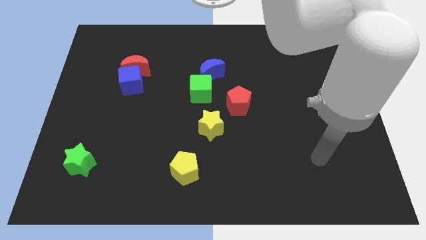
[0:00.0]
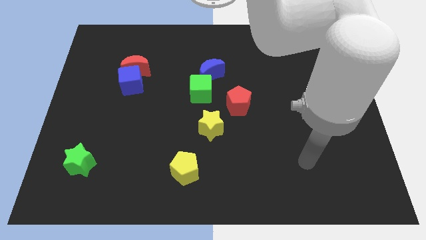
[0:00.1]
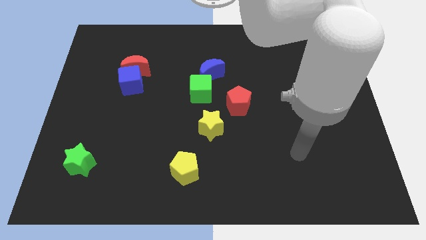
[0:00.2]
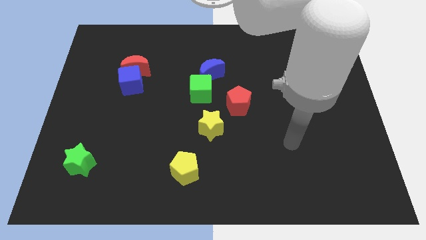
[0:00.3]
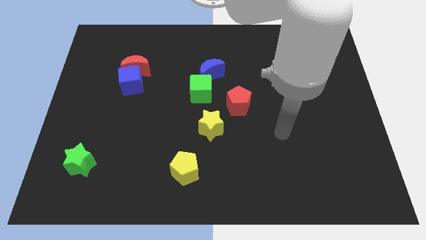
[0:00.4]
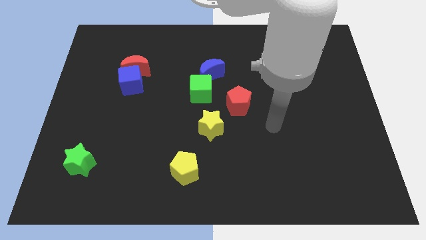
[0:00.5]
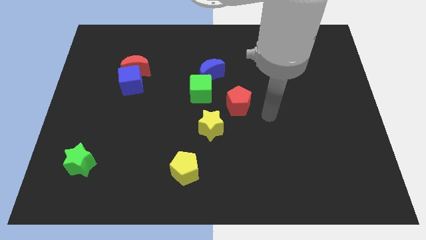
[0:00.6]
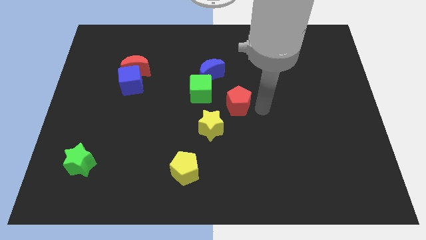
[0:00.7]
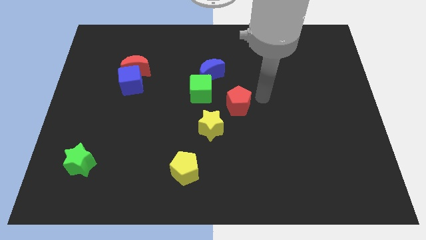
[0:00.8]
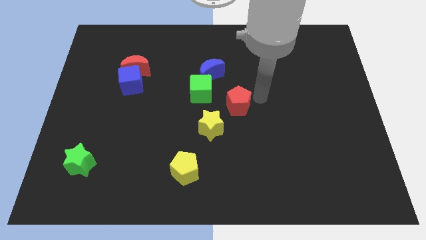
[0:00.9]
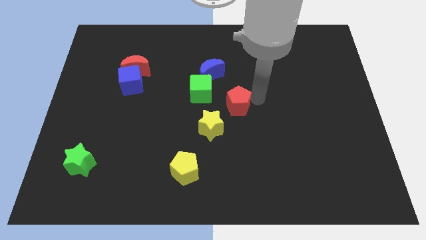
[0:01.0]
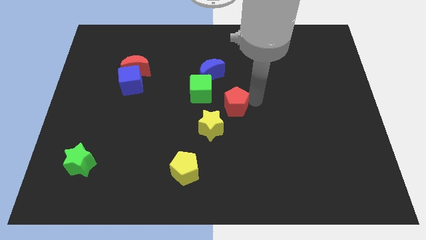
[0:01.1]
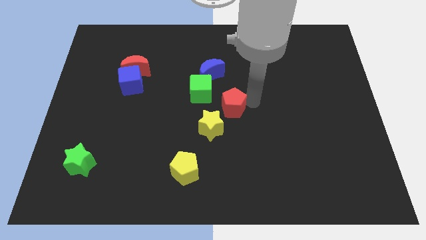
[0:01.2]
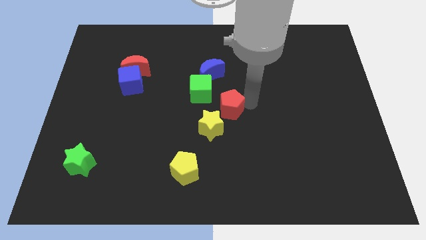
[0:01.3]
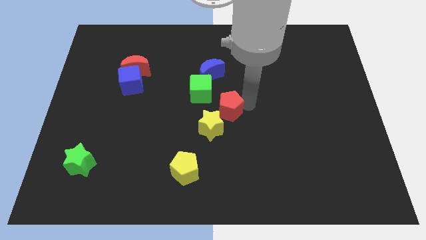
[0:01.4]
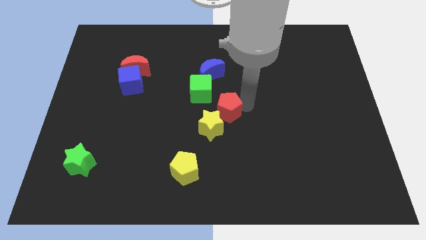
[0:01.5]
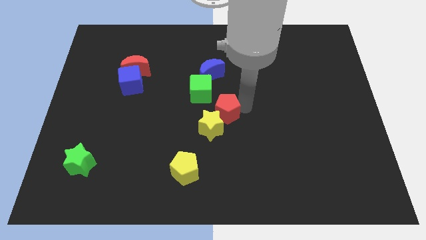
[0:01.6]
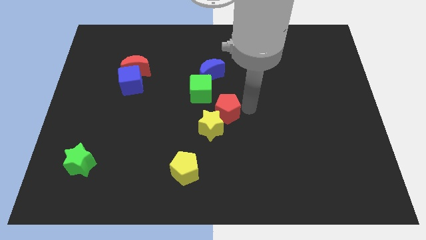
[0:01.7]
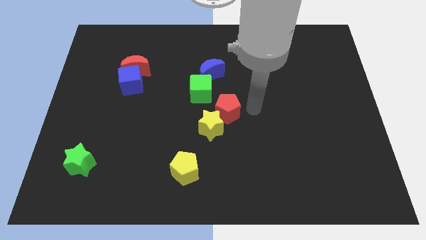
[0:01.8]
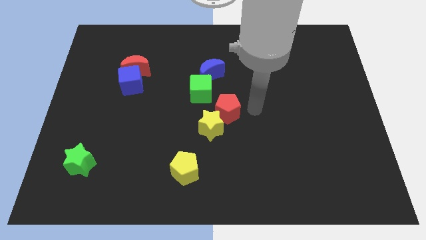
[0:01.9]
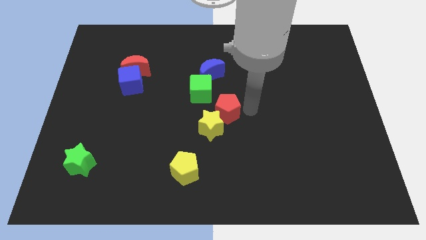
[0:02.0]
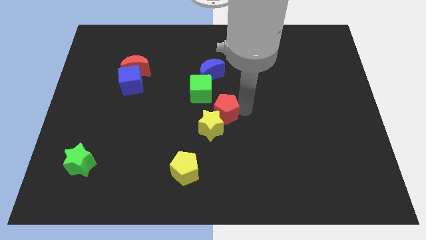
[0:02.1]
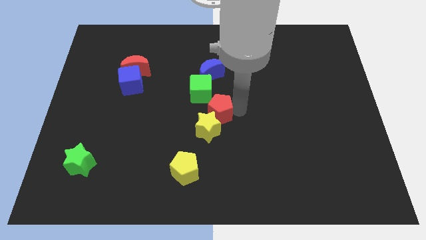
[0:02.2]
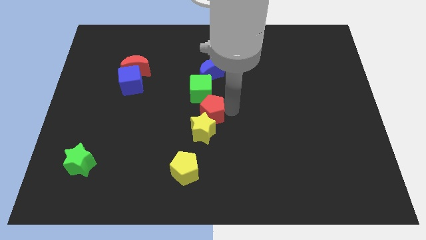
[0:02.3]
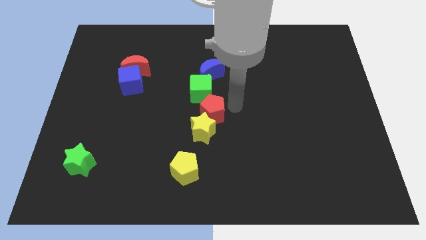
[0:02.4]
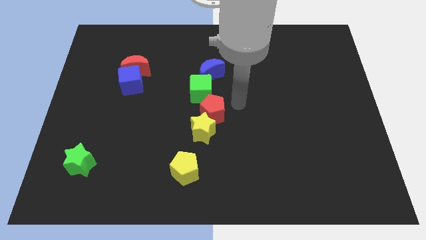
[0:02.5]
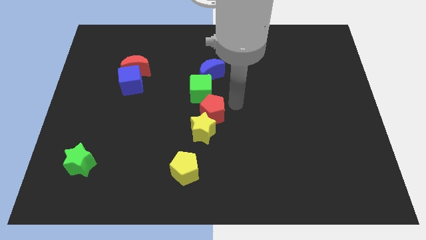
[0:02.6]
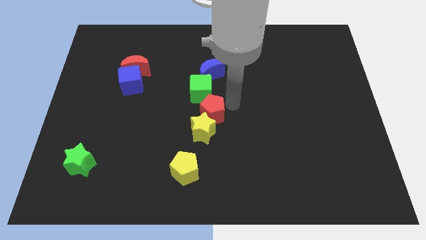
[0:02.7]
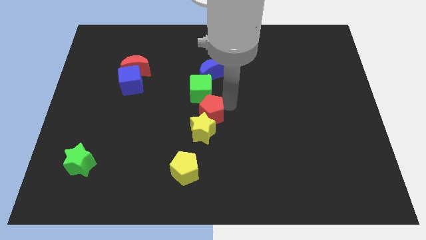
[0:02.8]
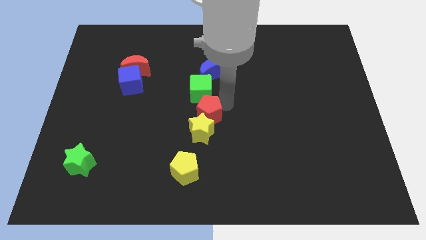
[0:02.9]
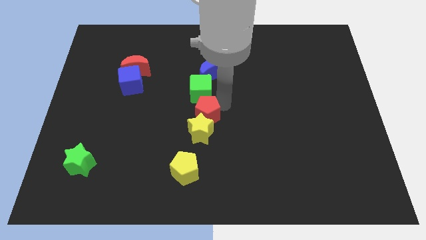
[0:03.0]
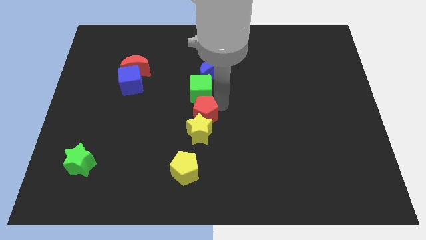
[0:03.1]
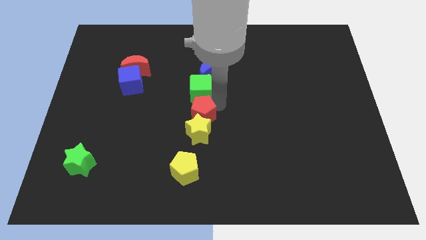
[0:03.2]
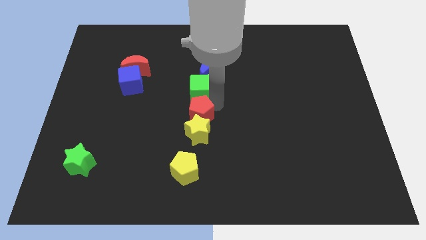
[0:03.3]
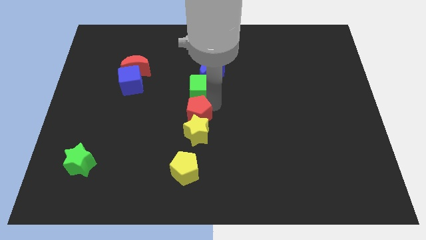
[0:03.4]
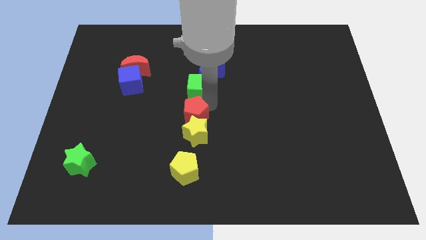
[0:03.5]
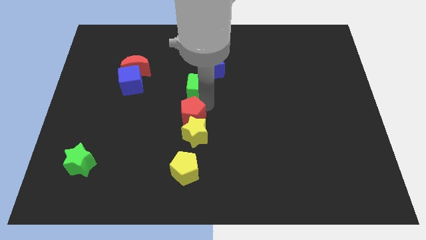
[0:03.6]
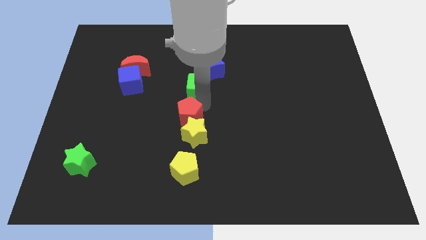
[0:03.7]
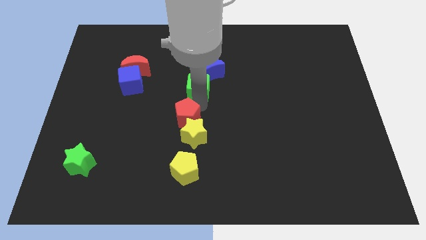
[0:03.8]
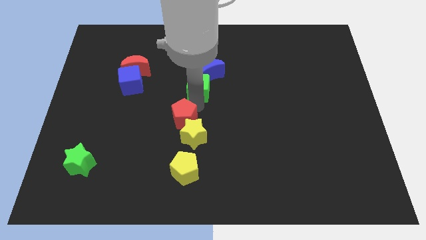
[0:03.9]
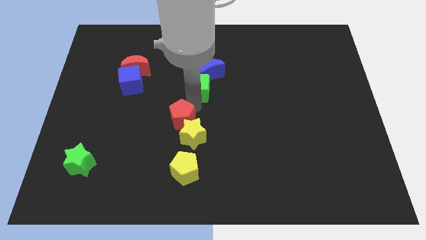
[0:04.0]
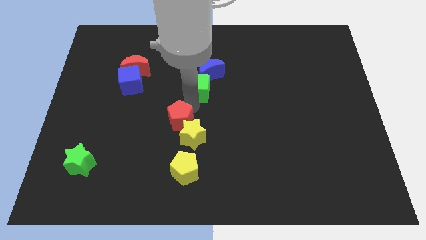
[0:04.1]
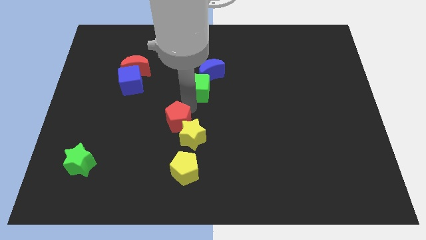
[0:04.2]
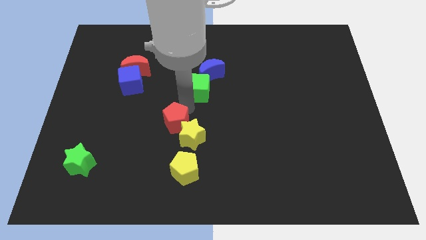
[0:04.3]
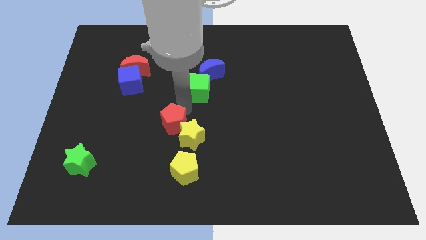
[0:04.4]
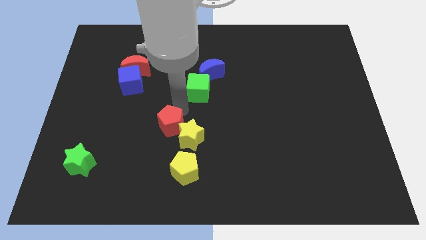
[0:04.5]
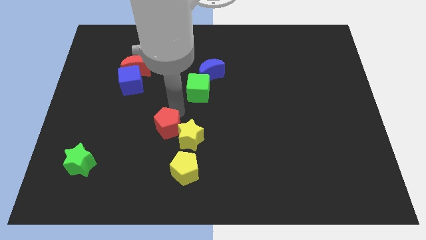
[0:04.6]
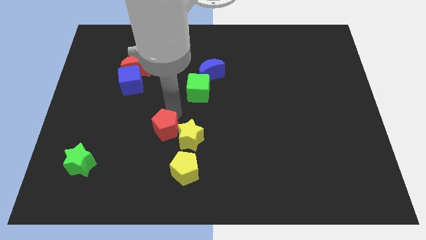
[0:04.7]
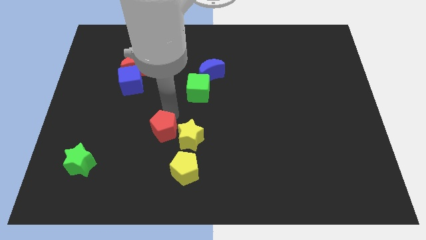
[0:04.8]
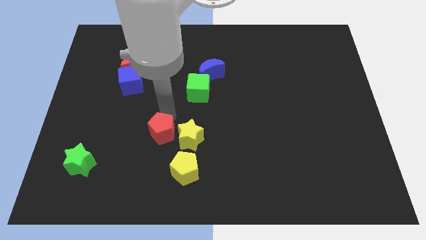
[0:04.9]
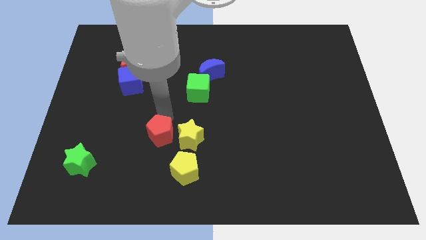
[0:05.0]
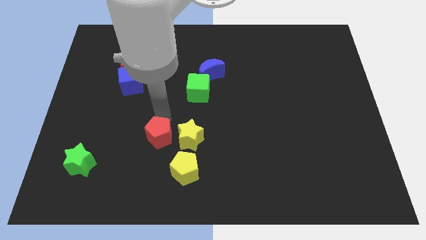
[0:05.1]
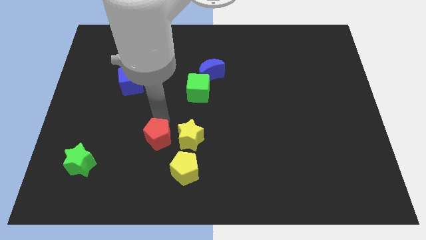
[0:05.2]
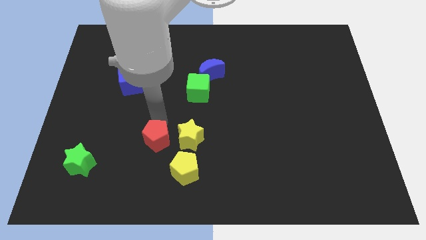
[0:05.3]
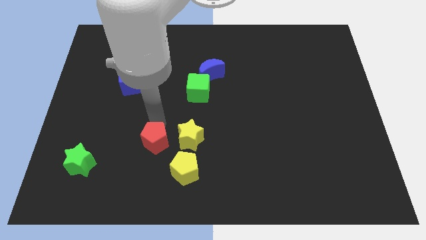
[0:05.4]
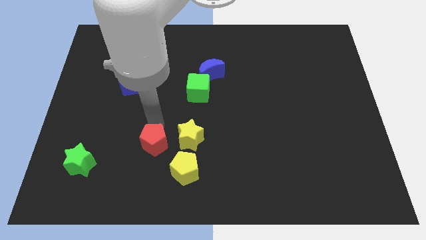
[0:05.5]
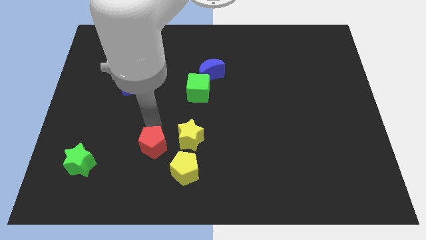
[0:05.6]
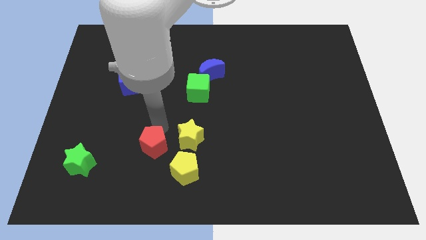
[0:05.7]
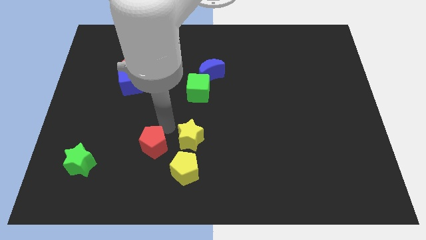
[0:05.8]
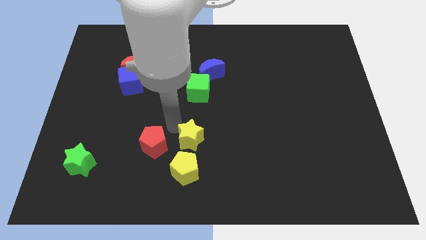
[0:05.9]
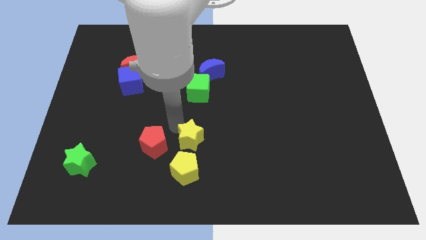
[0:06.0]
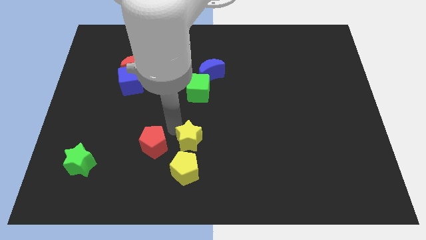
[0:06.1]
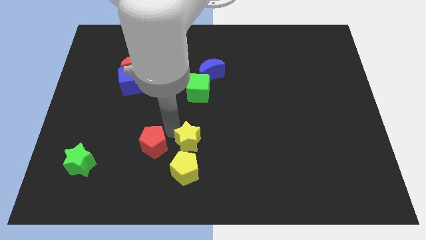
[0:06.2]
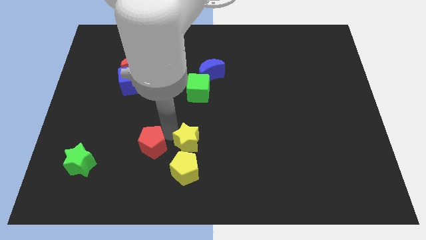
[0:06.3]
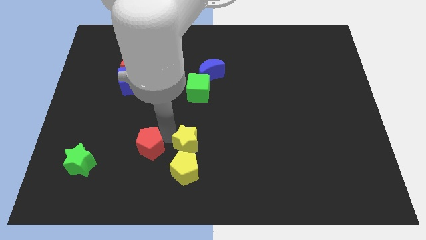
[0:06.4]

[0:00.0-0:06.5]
move the red pentagon just right of the green star

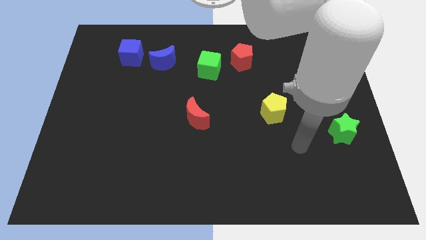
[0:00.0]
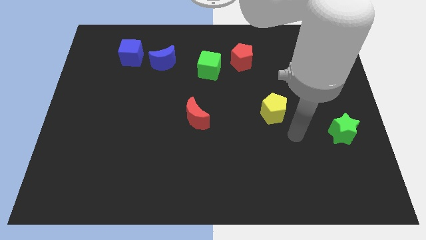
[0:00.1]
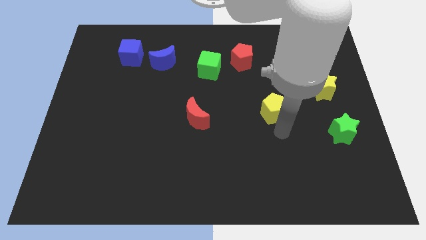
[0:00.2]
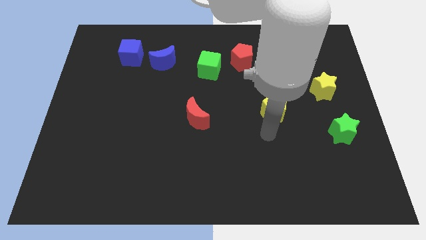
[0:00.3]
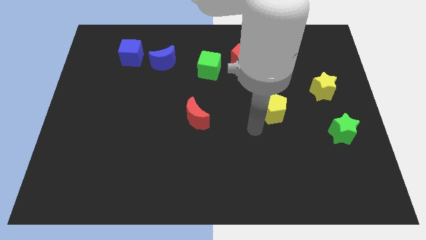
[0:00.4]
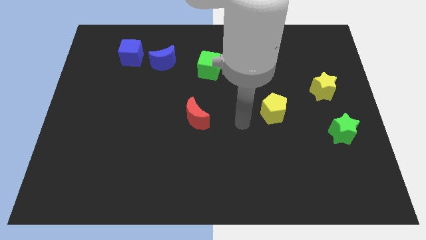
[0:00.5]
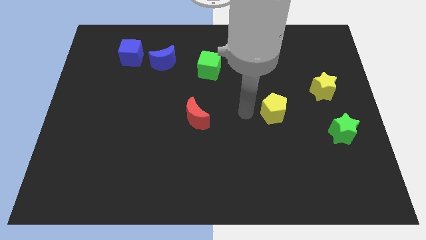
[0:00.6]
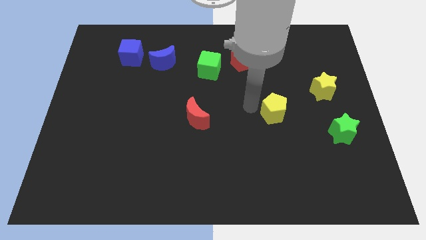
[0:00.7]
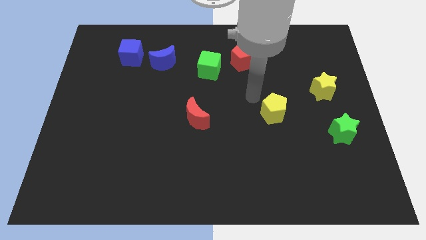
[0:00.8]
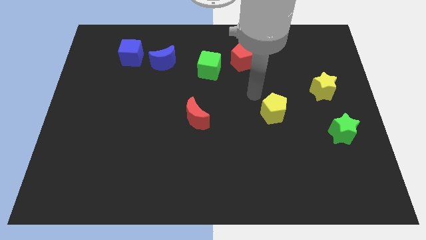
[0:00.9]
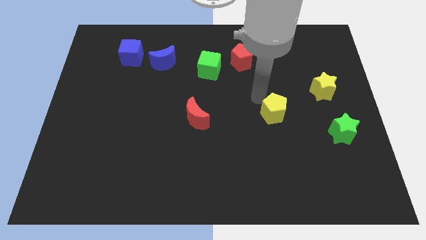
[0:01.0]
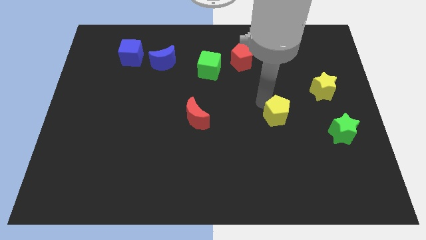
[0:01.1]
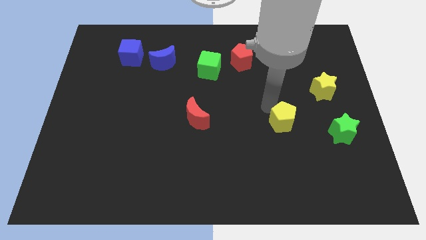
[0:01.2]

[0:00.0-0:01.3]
slide the yellow pentagon to the left of the green star

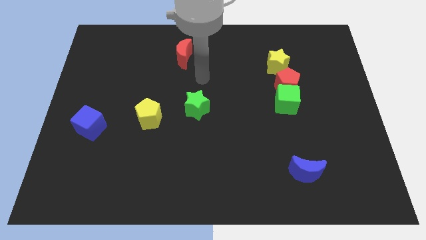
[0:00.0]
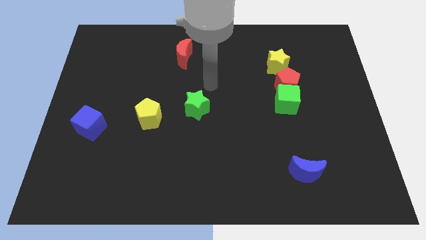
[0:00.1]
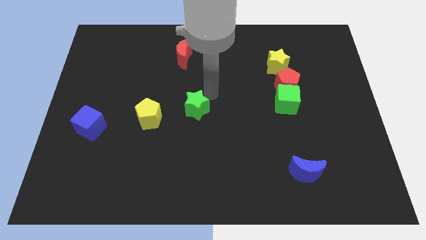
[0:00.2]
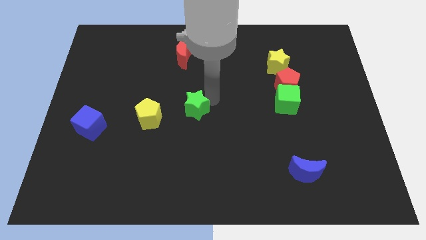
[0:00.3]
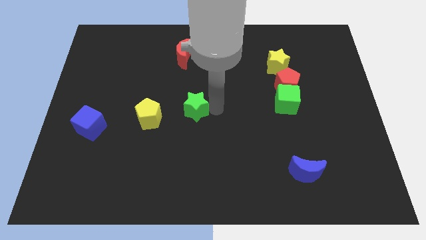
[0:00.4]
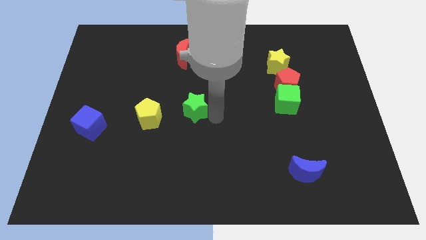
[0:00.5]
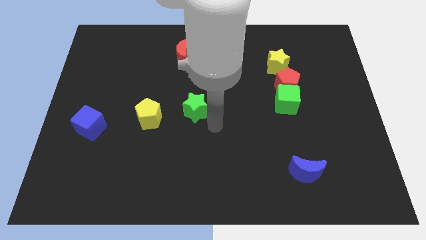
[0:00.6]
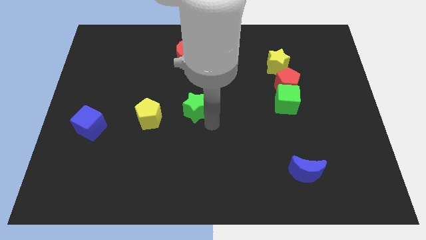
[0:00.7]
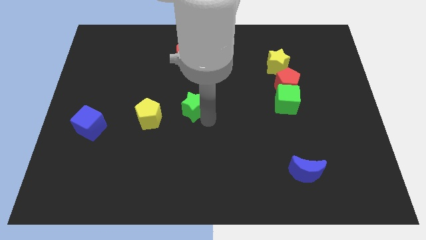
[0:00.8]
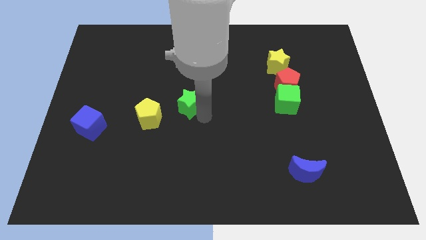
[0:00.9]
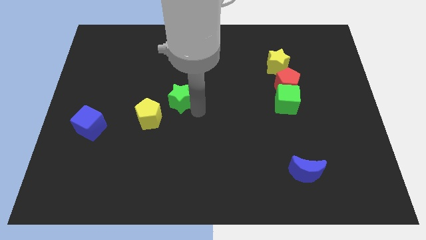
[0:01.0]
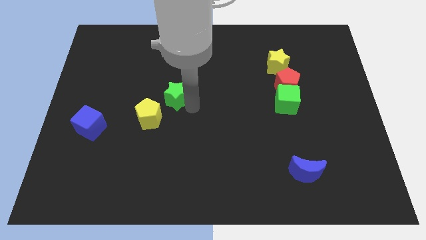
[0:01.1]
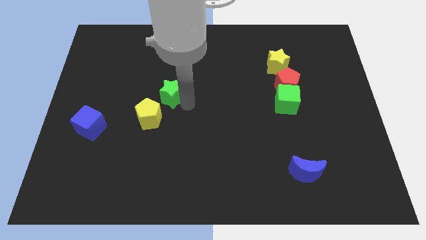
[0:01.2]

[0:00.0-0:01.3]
move the green star to the top side of the yellow pentagon

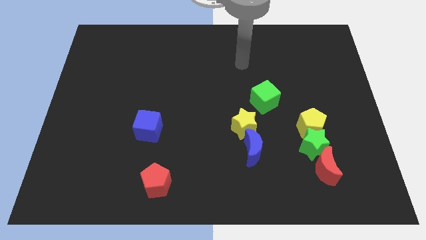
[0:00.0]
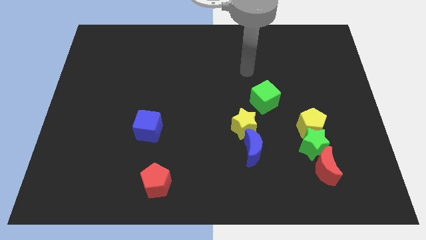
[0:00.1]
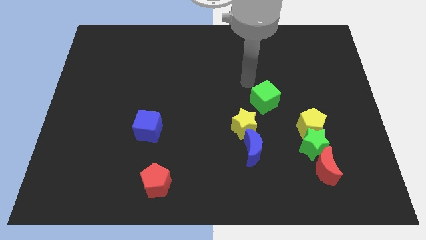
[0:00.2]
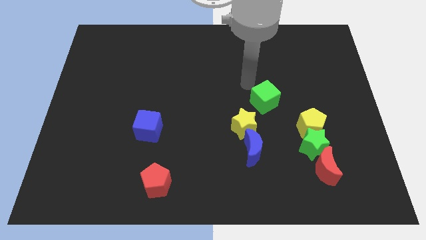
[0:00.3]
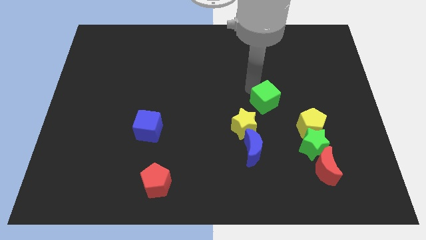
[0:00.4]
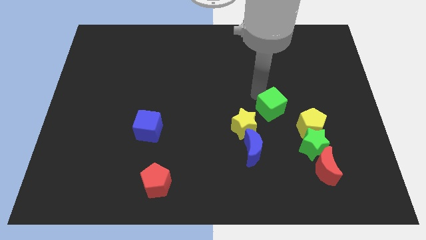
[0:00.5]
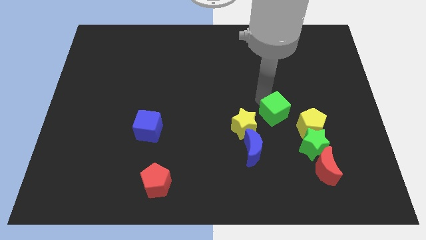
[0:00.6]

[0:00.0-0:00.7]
put the green cube just right of the yellow star
